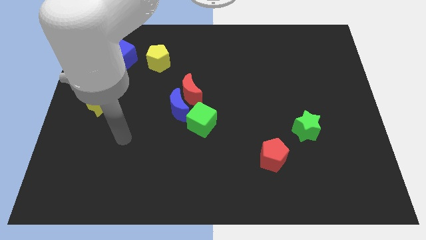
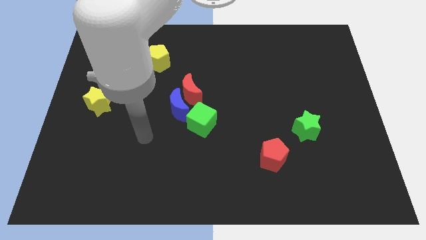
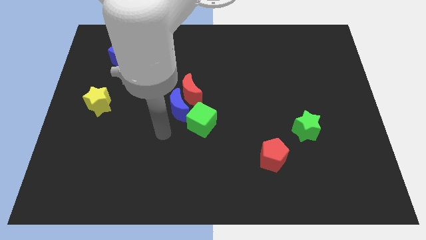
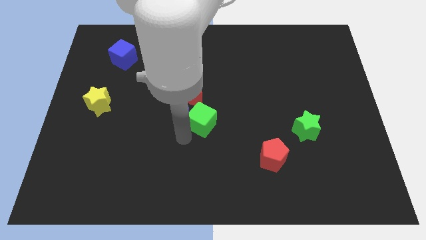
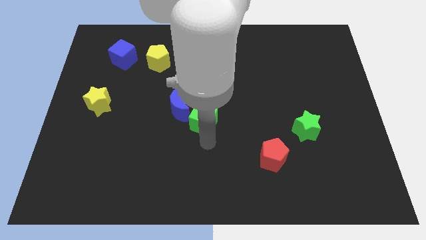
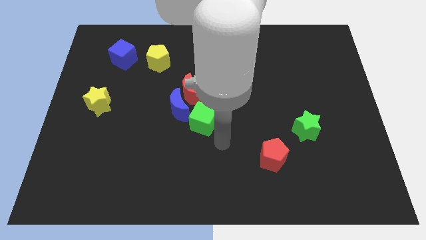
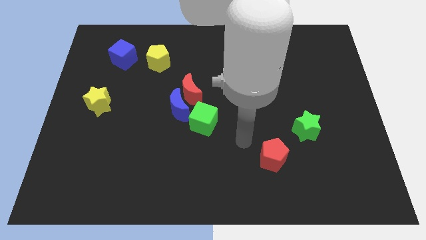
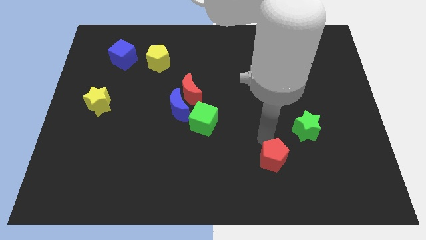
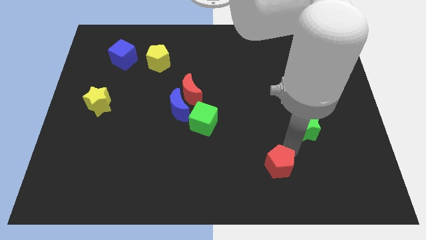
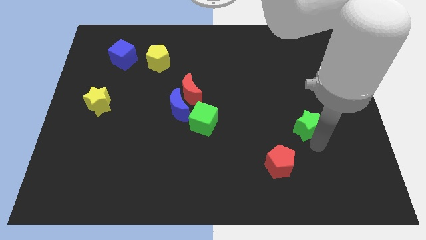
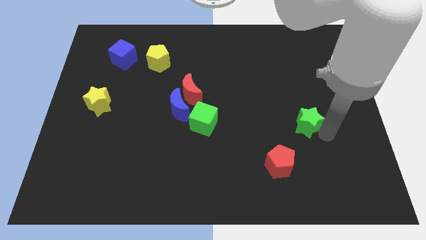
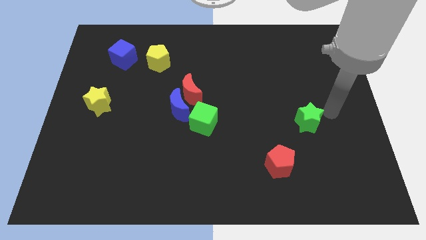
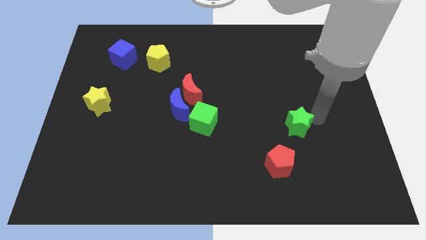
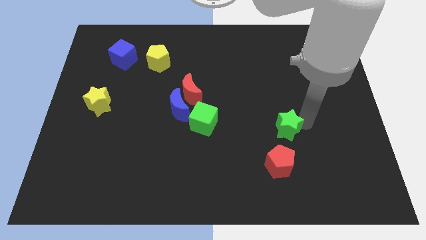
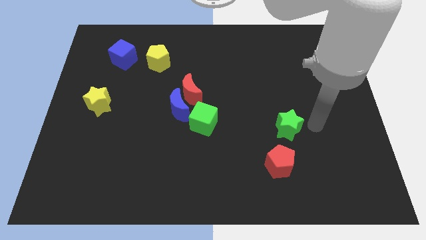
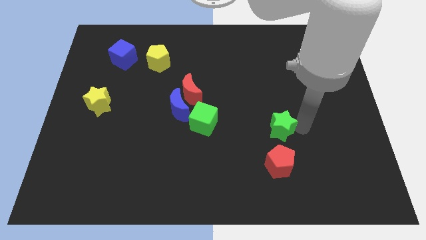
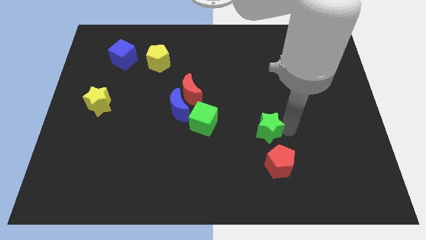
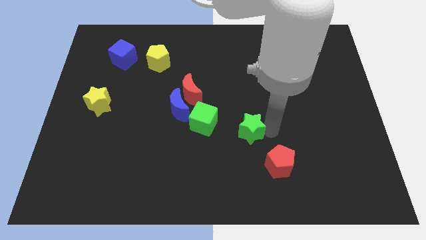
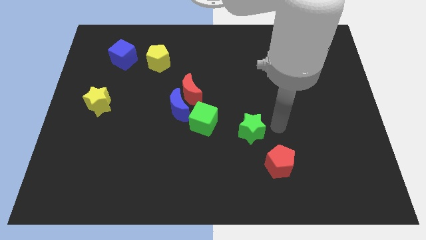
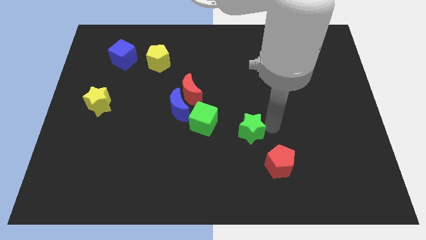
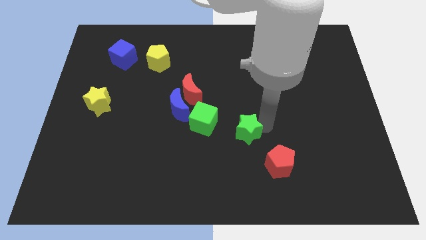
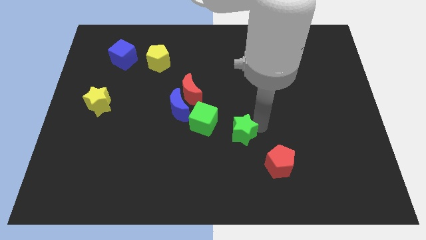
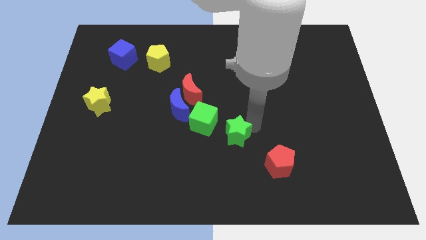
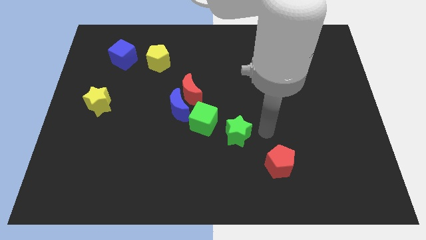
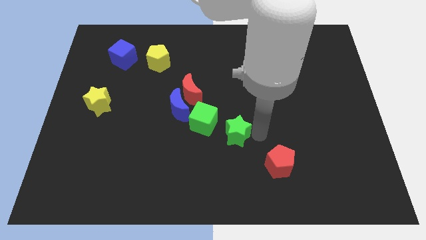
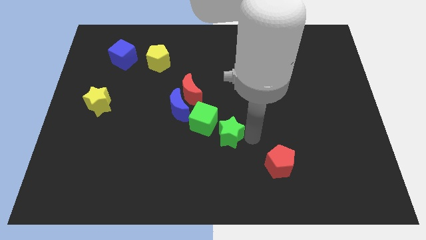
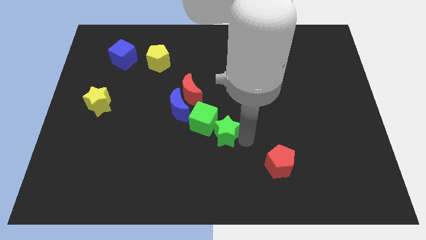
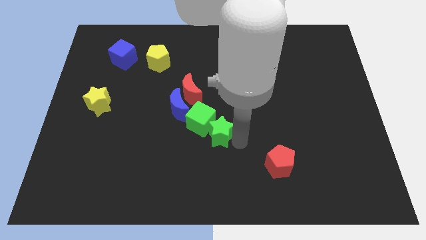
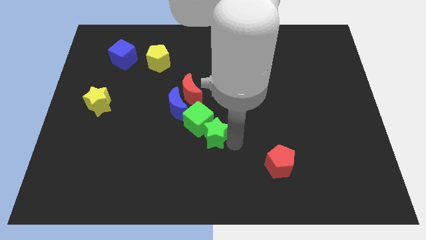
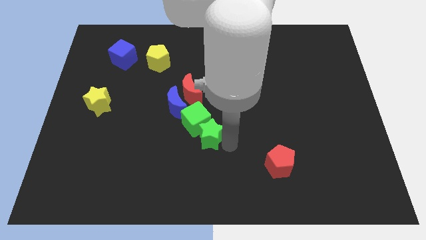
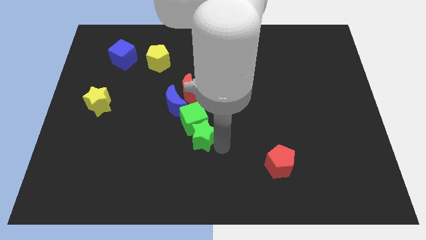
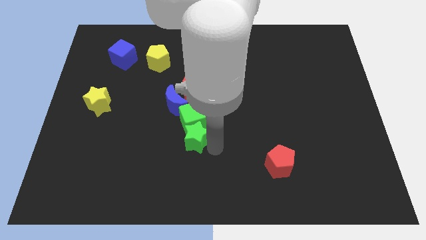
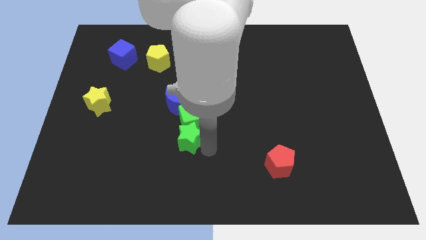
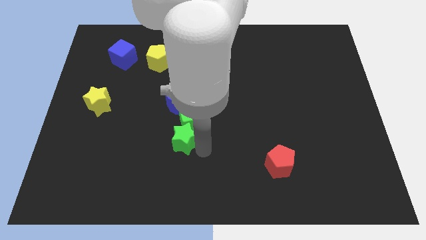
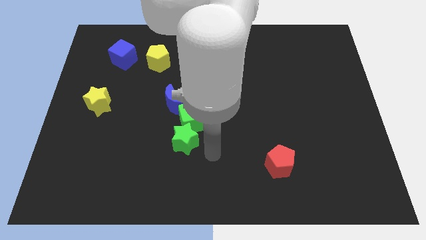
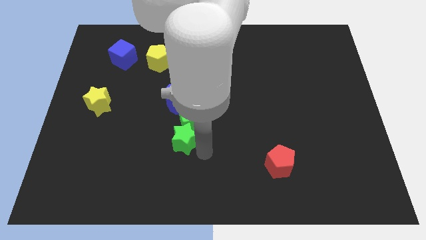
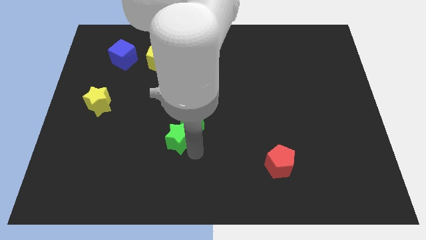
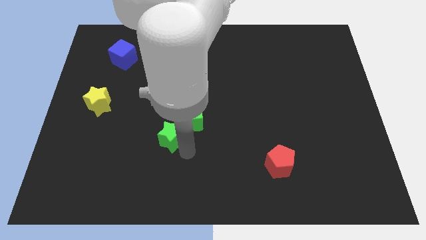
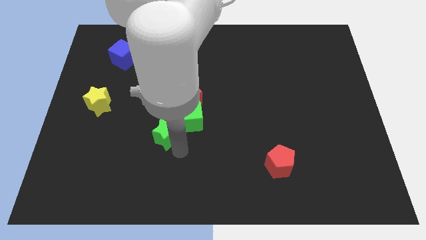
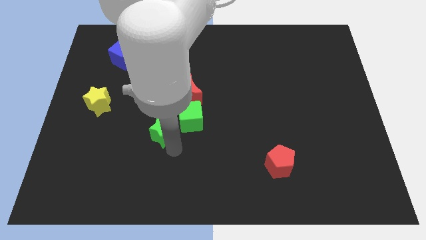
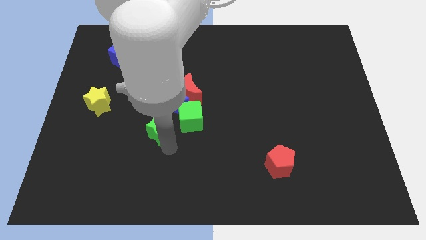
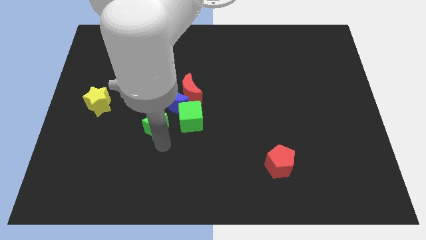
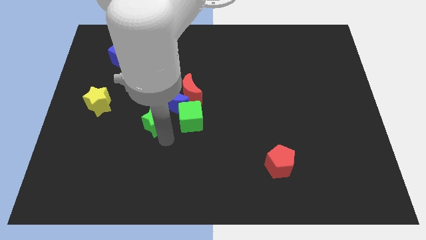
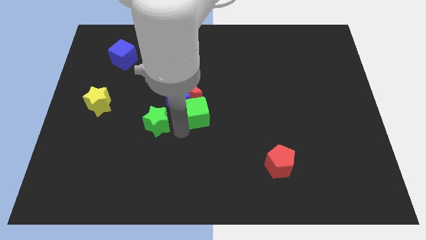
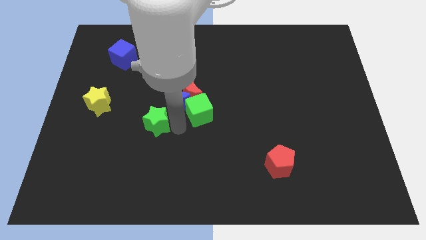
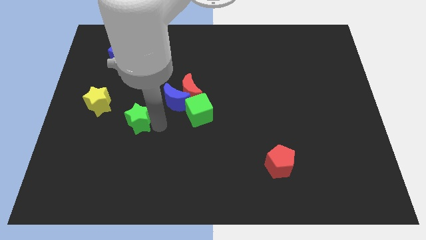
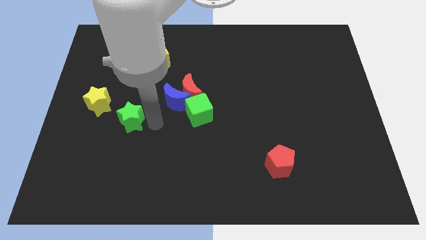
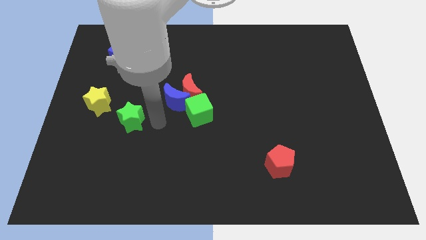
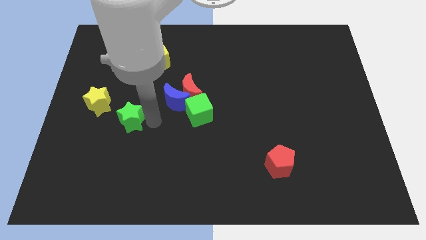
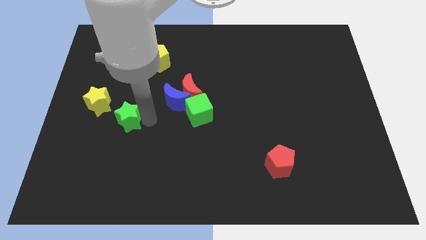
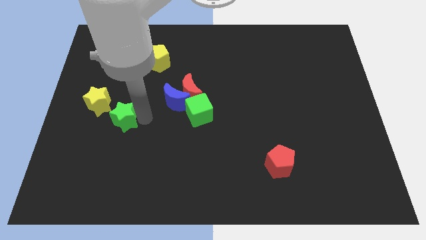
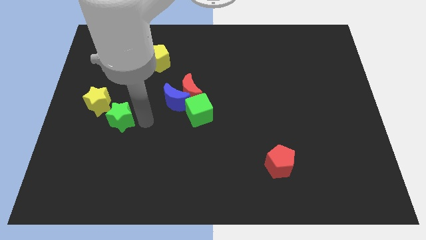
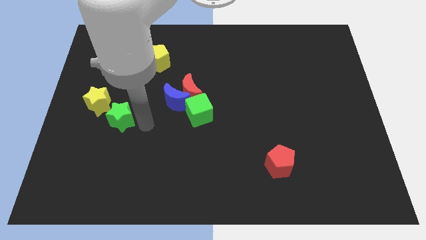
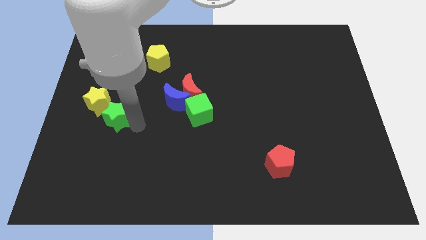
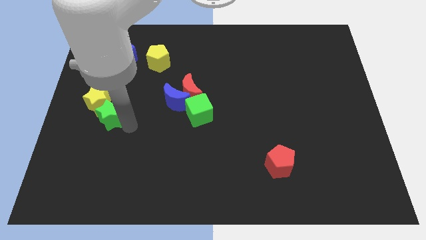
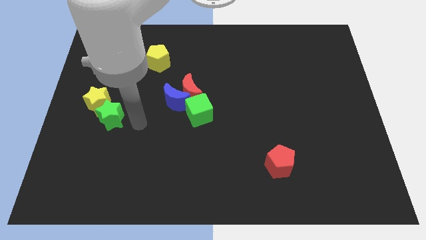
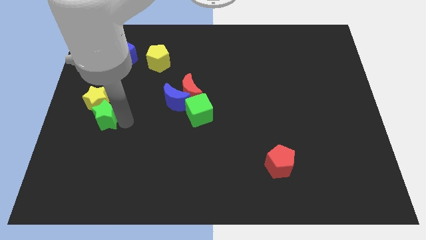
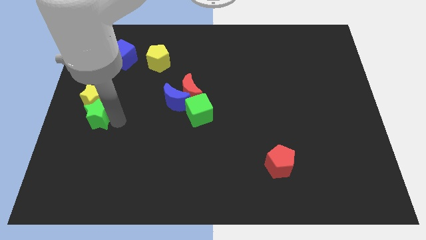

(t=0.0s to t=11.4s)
slide the green star to the left side

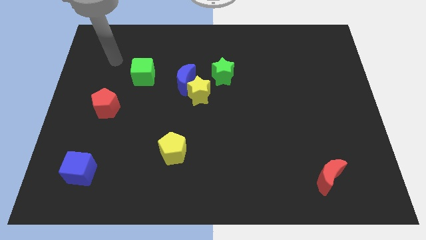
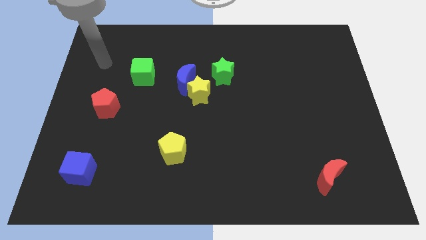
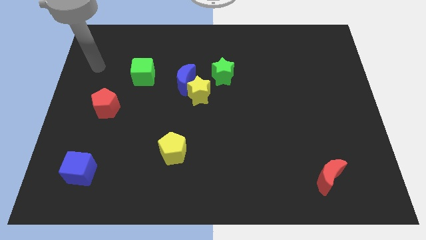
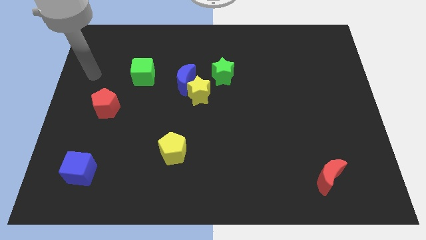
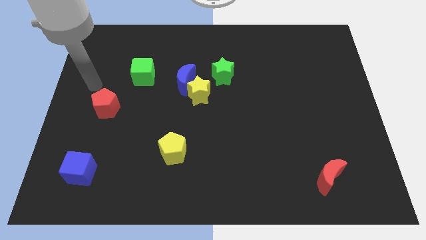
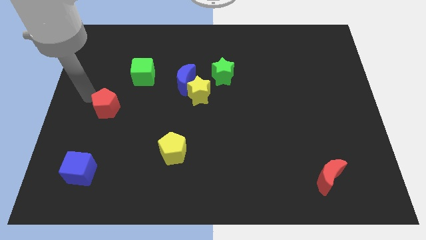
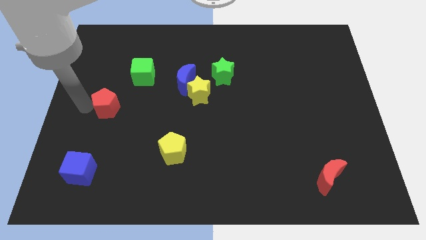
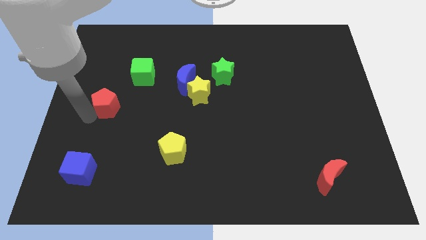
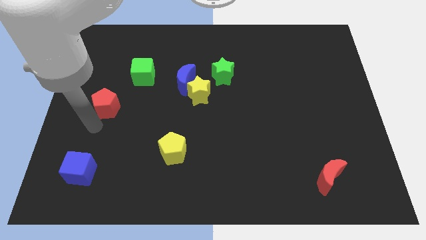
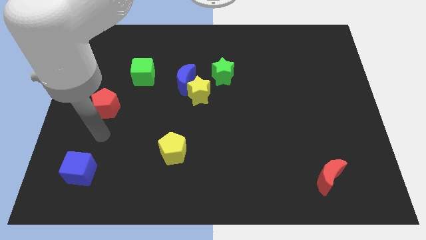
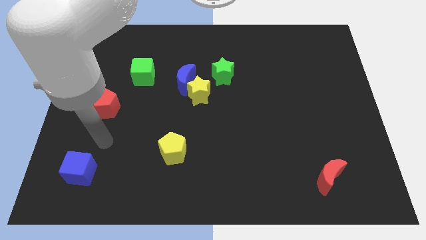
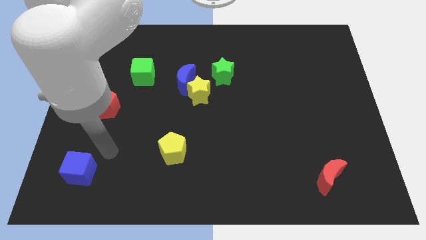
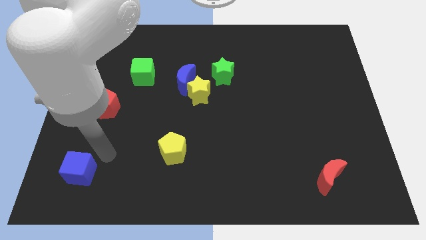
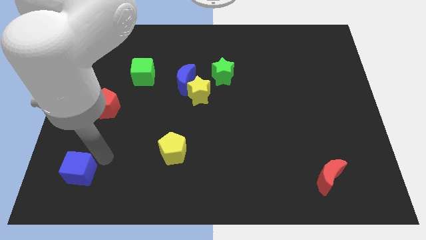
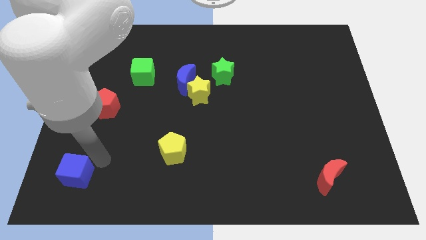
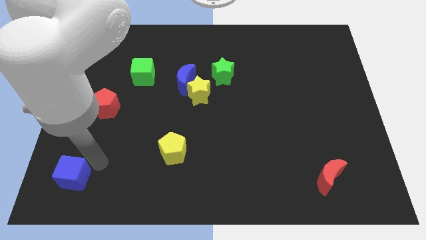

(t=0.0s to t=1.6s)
put the blue cube to the bottom left corner
